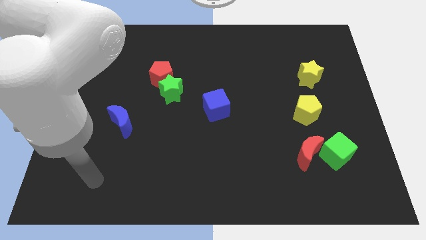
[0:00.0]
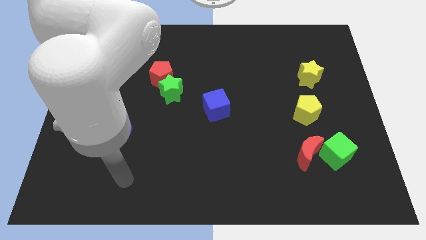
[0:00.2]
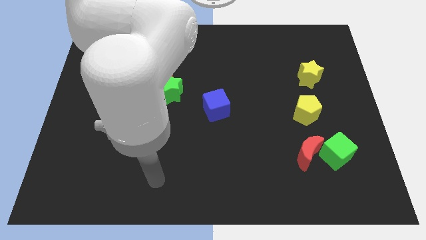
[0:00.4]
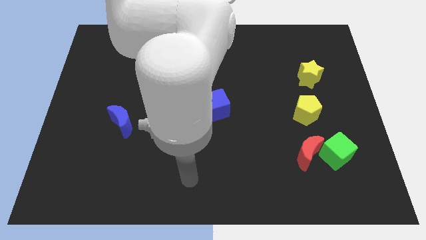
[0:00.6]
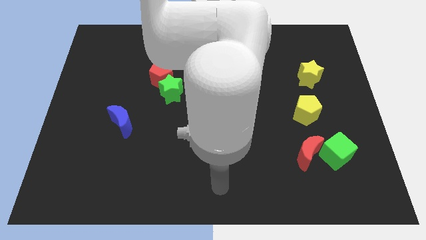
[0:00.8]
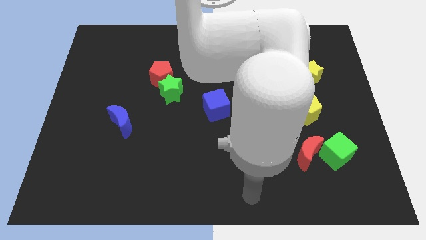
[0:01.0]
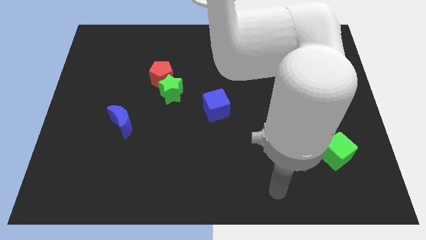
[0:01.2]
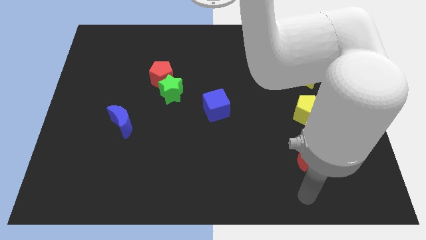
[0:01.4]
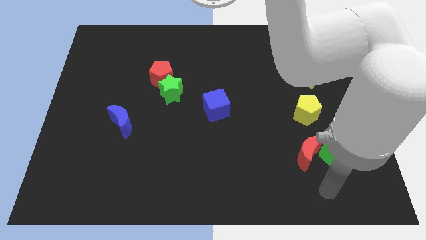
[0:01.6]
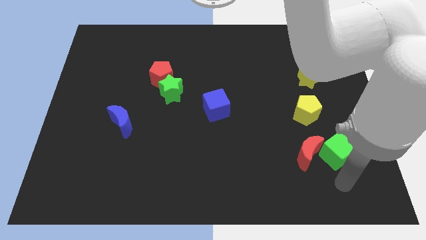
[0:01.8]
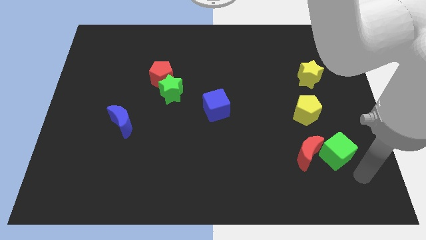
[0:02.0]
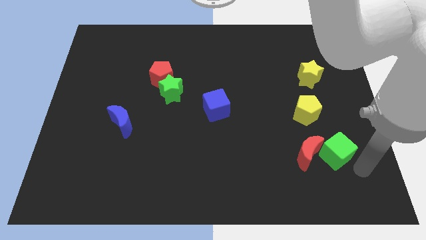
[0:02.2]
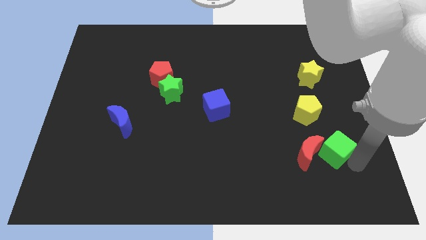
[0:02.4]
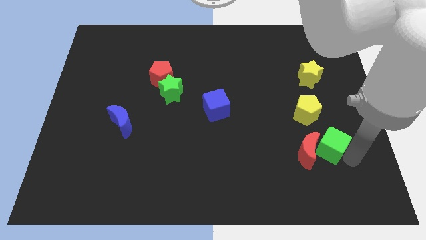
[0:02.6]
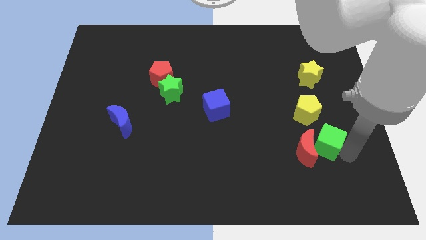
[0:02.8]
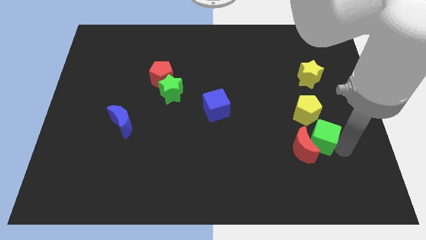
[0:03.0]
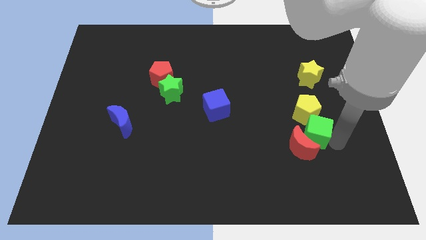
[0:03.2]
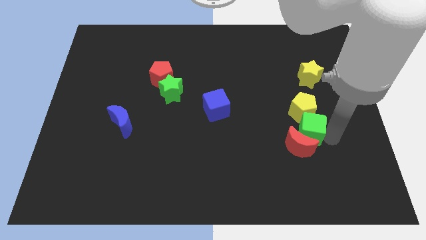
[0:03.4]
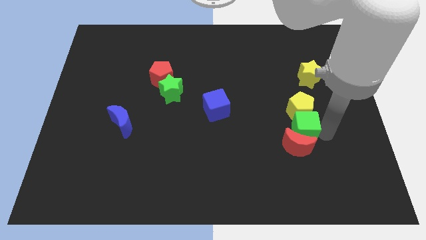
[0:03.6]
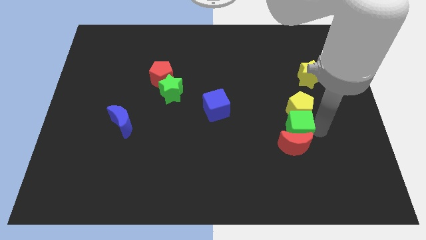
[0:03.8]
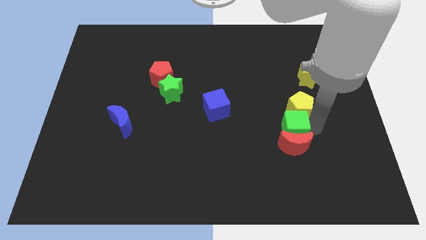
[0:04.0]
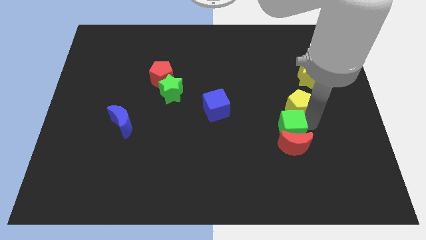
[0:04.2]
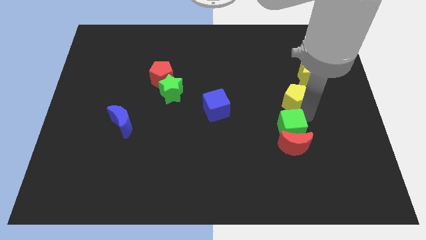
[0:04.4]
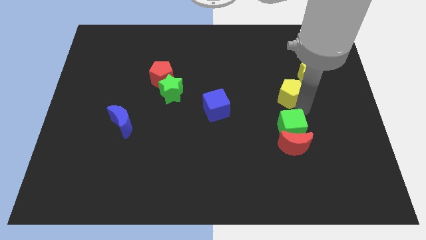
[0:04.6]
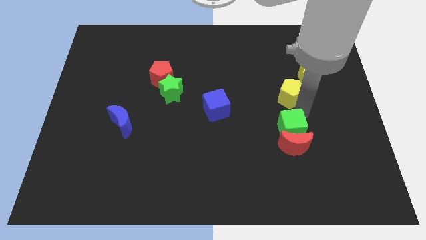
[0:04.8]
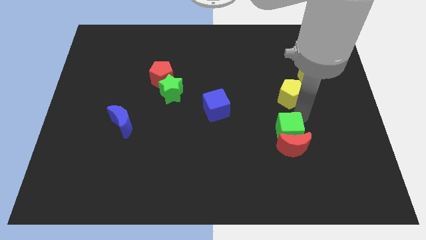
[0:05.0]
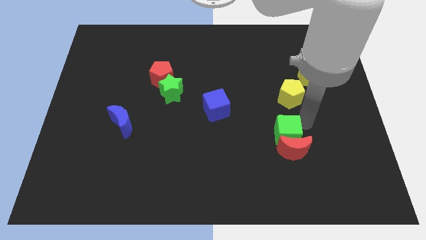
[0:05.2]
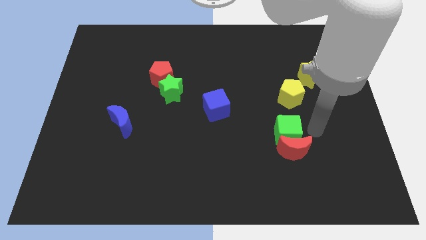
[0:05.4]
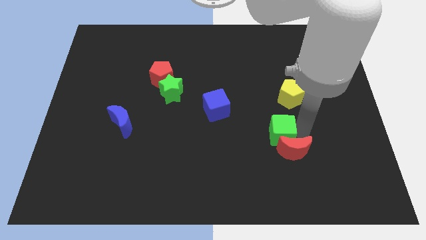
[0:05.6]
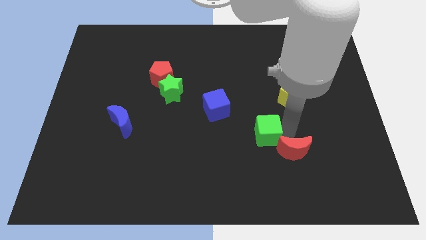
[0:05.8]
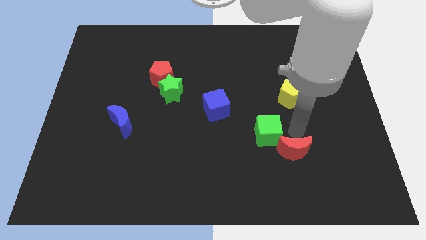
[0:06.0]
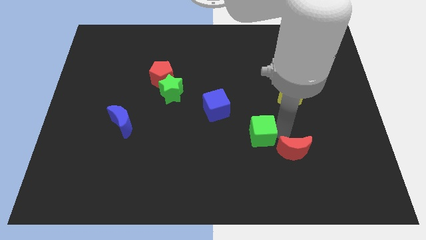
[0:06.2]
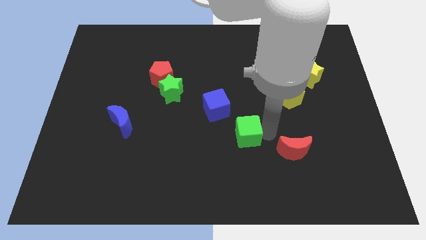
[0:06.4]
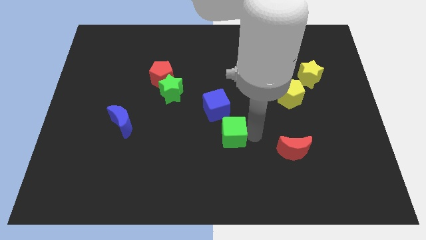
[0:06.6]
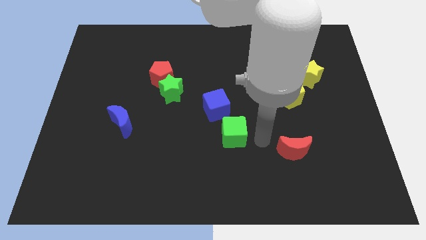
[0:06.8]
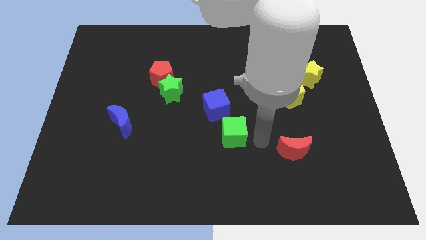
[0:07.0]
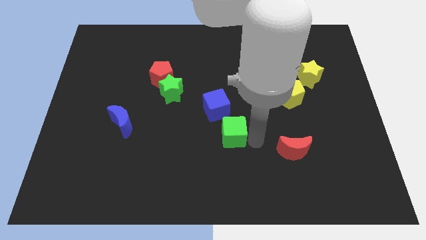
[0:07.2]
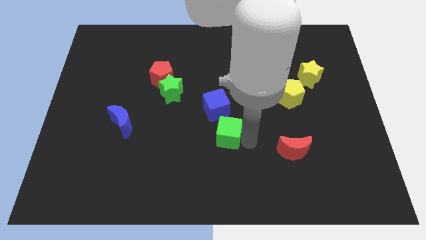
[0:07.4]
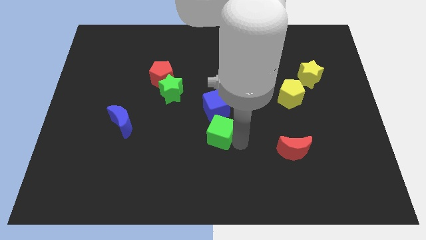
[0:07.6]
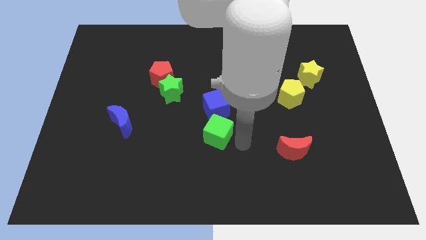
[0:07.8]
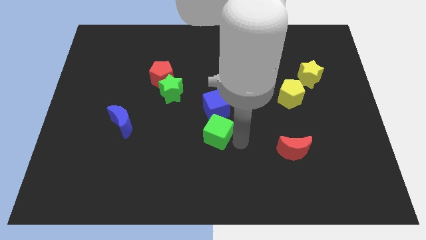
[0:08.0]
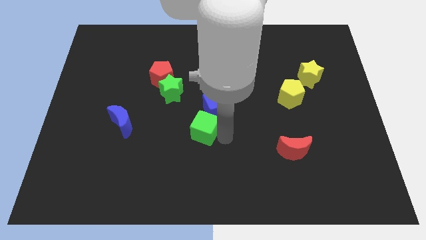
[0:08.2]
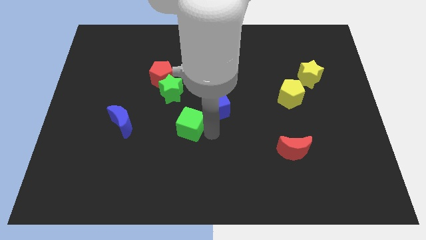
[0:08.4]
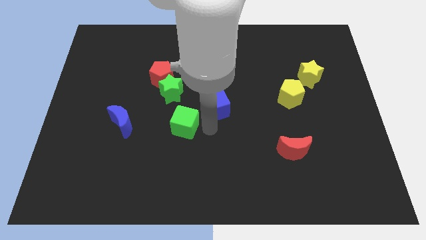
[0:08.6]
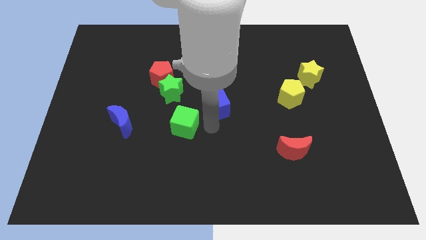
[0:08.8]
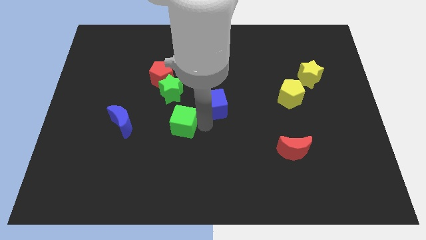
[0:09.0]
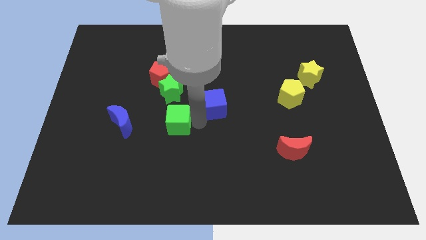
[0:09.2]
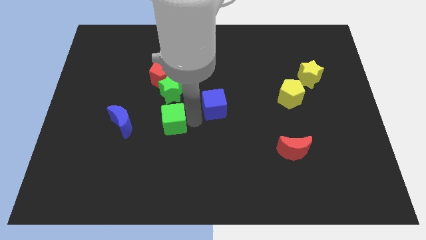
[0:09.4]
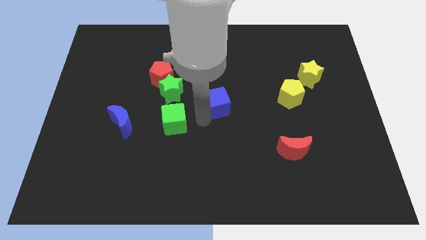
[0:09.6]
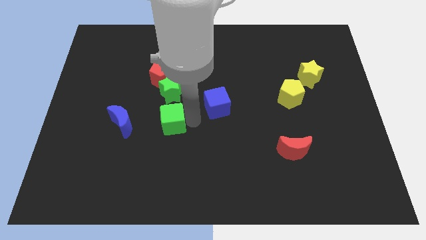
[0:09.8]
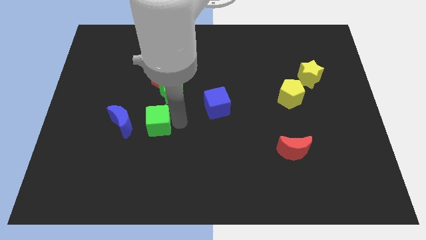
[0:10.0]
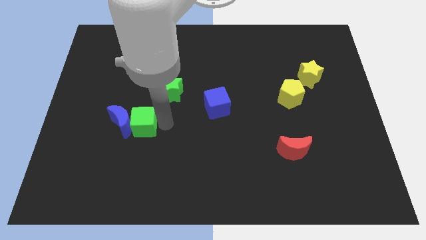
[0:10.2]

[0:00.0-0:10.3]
push the green cube close to the blue moon

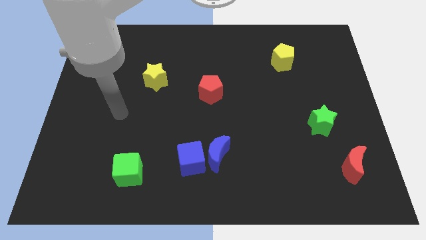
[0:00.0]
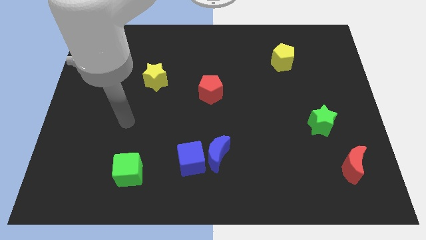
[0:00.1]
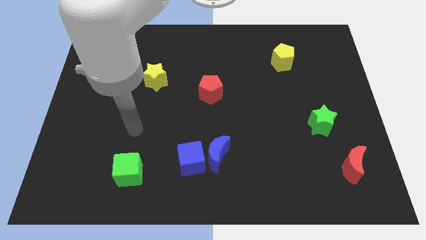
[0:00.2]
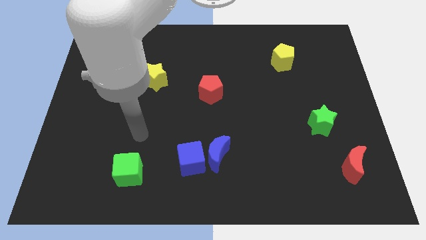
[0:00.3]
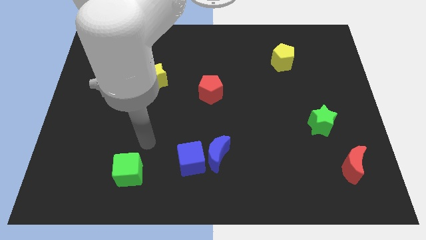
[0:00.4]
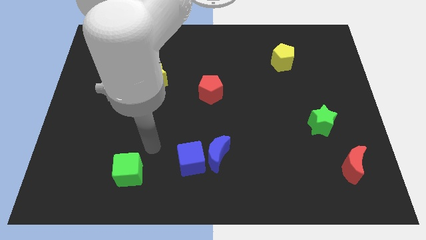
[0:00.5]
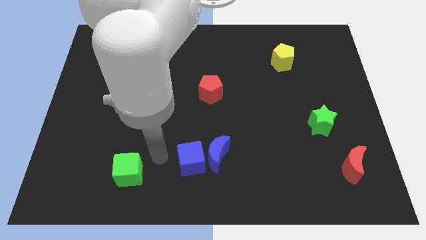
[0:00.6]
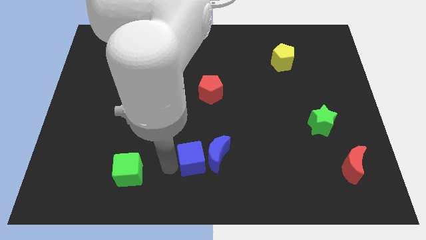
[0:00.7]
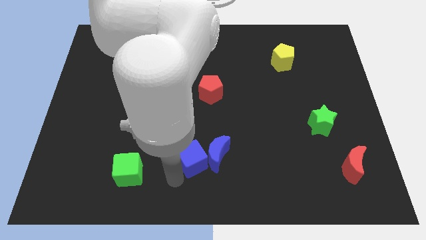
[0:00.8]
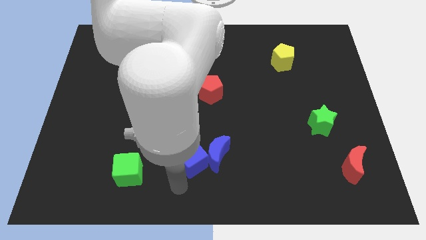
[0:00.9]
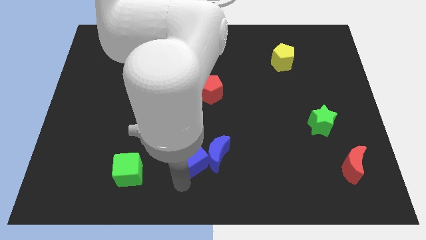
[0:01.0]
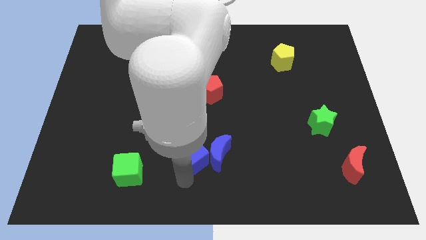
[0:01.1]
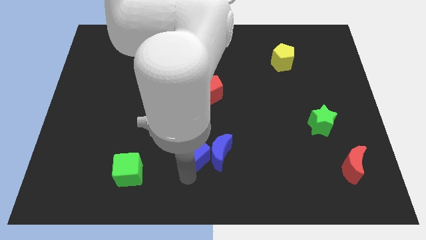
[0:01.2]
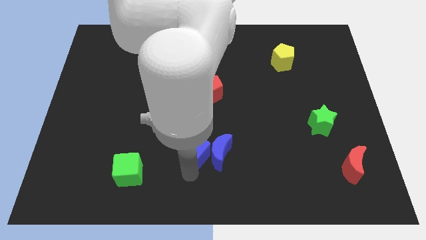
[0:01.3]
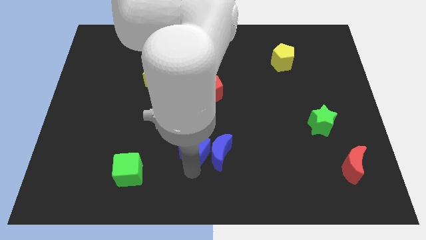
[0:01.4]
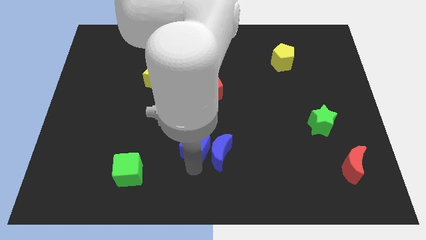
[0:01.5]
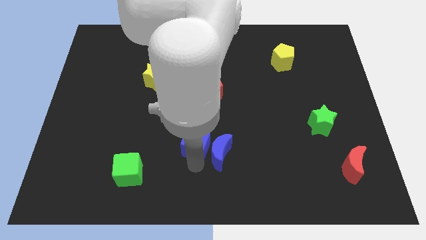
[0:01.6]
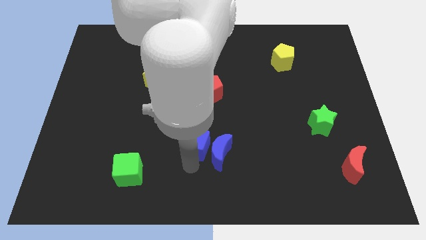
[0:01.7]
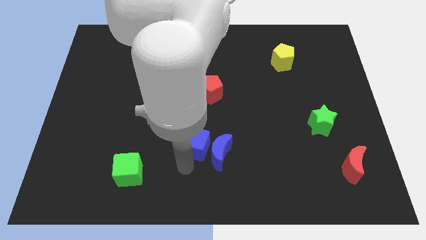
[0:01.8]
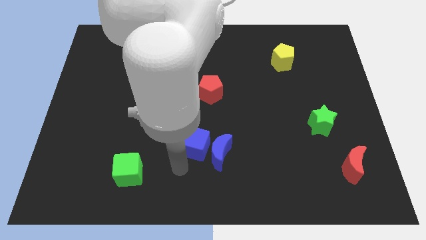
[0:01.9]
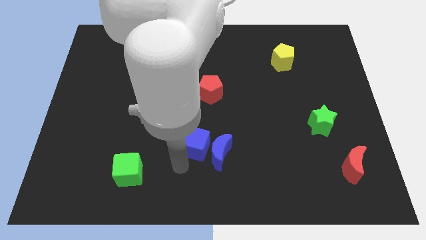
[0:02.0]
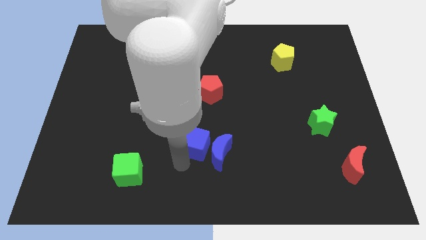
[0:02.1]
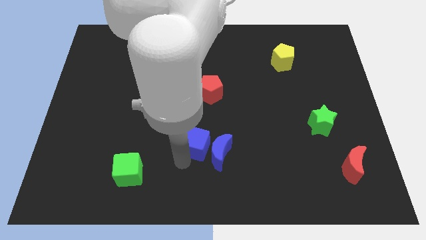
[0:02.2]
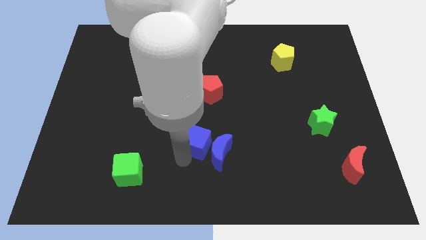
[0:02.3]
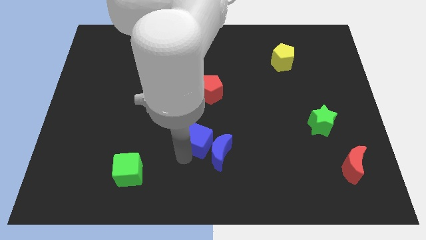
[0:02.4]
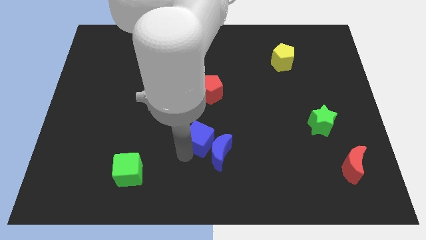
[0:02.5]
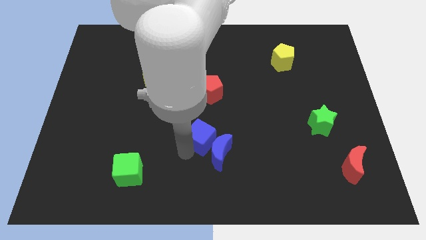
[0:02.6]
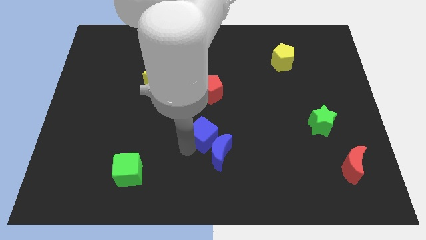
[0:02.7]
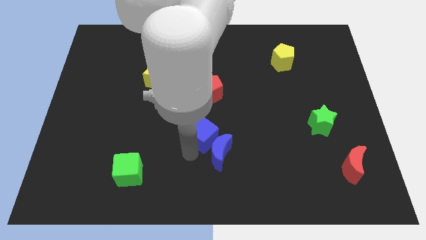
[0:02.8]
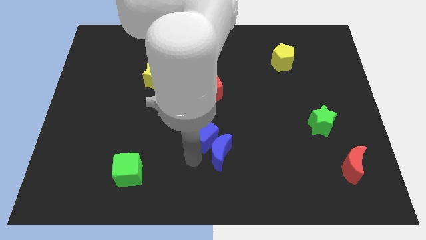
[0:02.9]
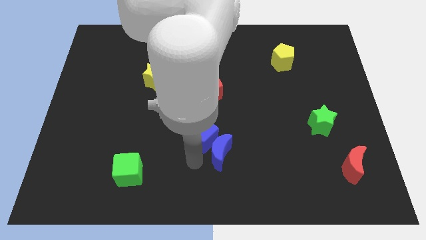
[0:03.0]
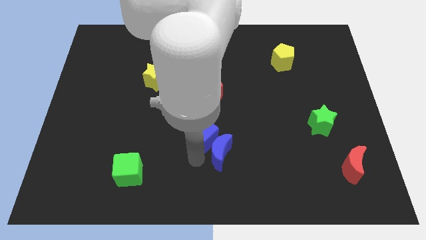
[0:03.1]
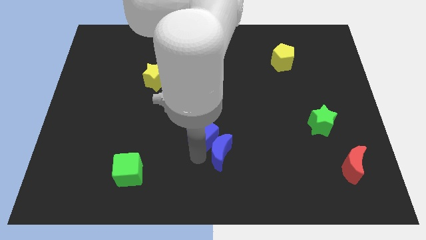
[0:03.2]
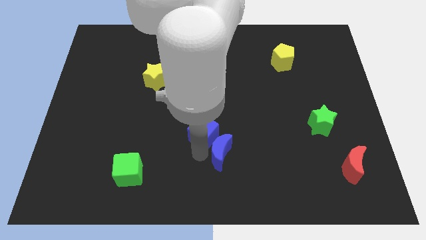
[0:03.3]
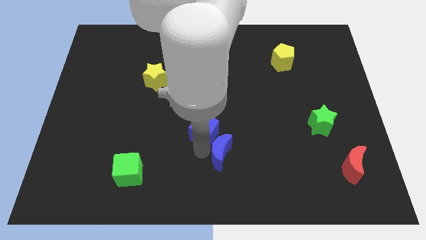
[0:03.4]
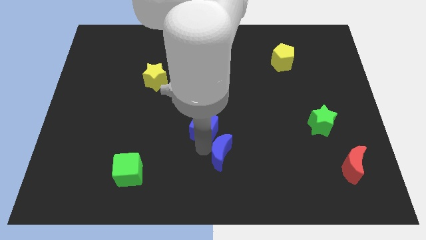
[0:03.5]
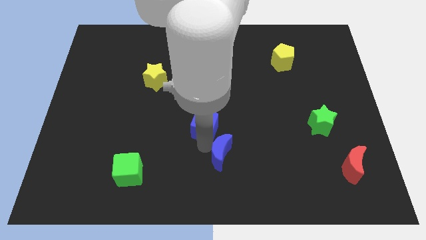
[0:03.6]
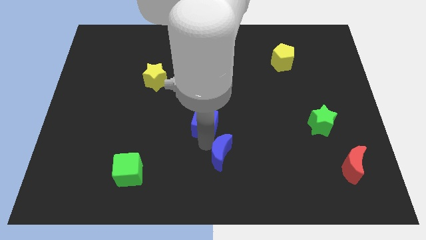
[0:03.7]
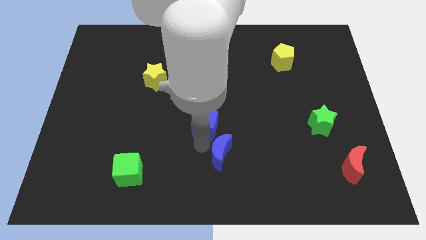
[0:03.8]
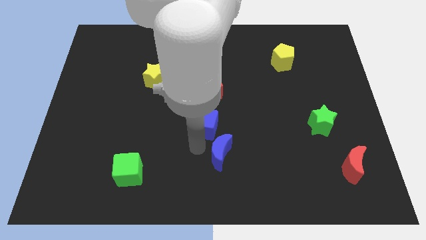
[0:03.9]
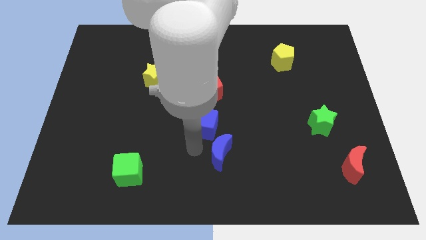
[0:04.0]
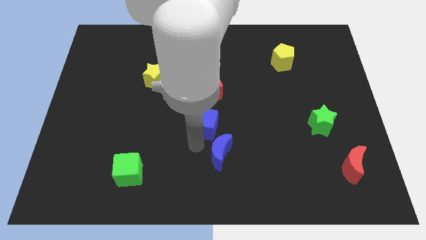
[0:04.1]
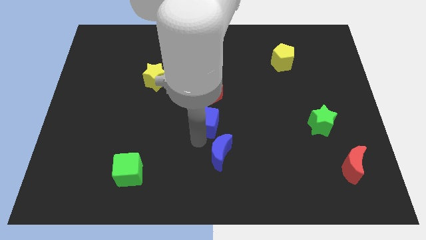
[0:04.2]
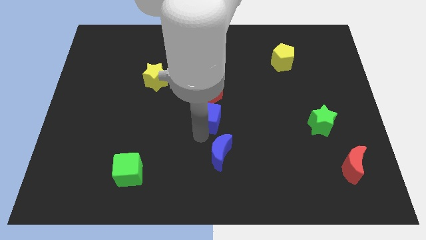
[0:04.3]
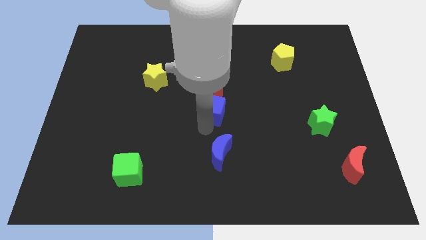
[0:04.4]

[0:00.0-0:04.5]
push the blue cube towards the red pentagon
